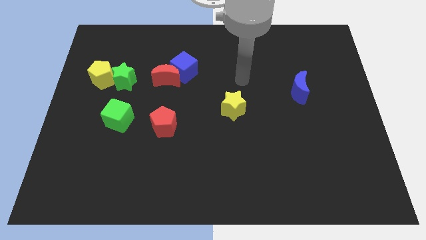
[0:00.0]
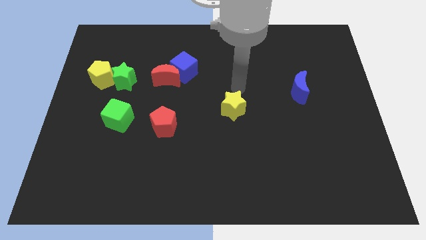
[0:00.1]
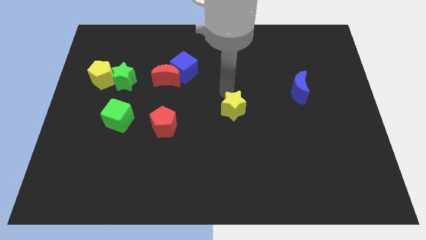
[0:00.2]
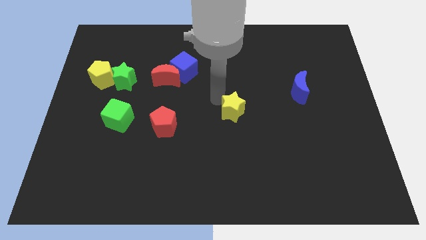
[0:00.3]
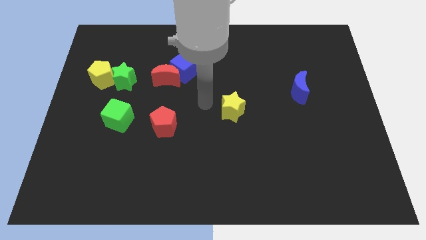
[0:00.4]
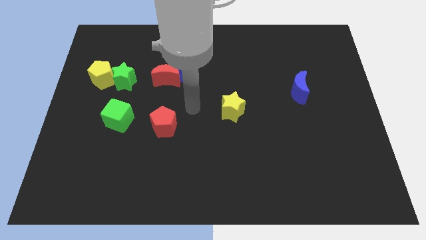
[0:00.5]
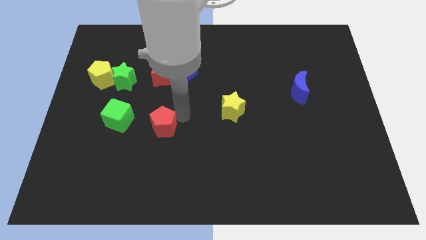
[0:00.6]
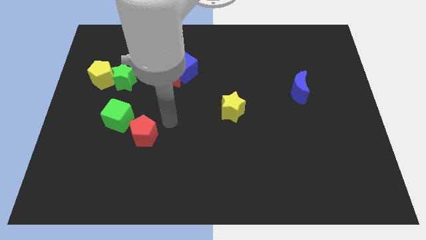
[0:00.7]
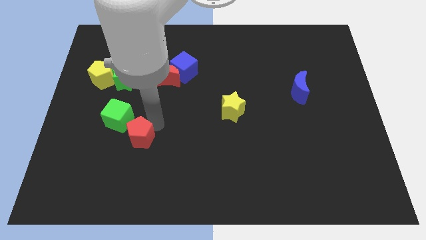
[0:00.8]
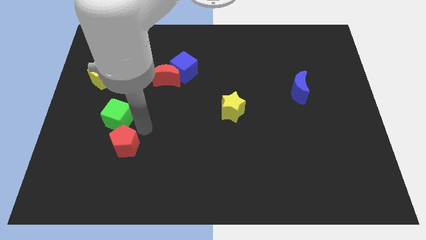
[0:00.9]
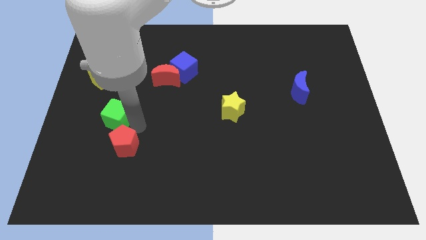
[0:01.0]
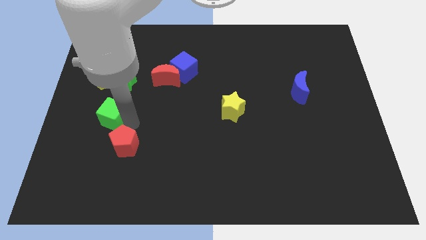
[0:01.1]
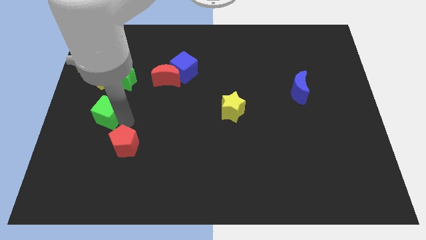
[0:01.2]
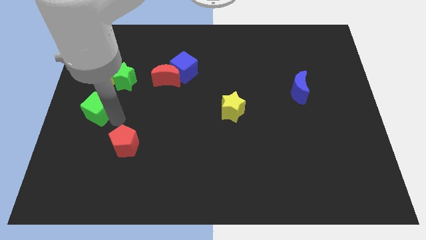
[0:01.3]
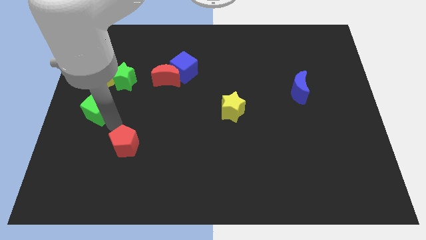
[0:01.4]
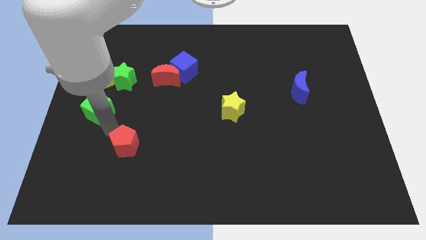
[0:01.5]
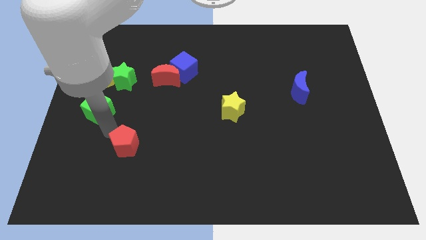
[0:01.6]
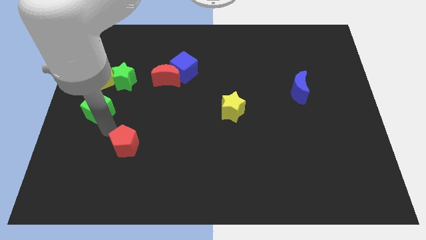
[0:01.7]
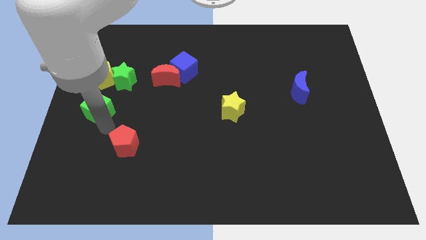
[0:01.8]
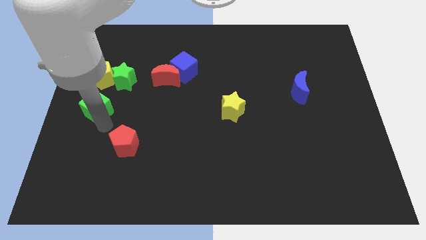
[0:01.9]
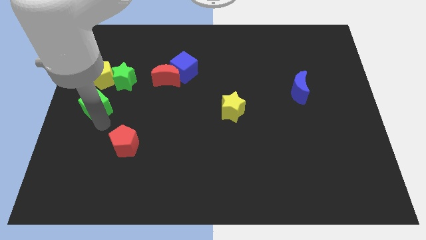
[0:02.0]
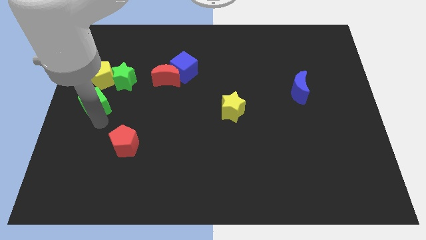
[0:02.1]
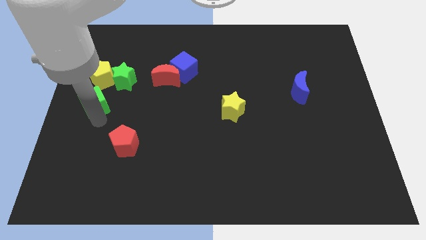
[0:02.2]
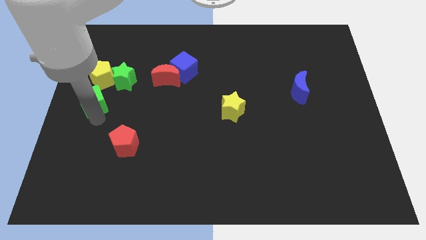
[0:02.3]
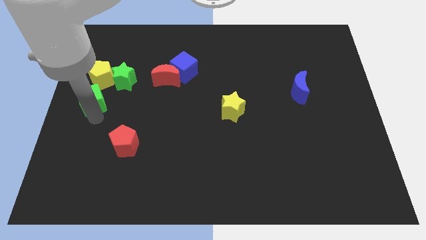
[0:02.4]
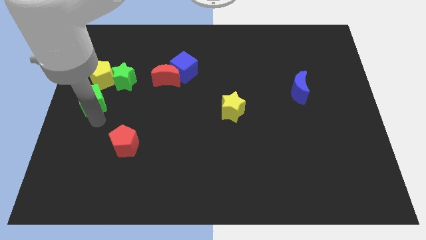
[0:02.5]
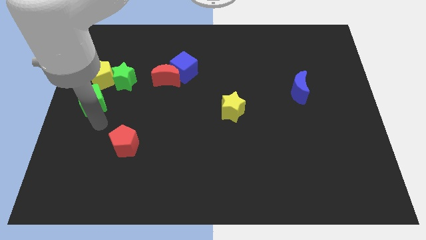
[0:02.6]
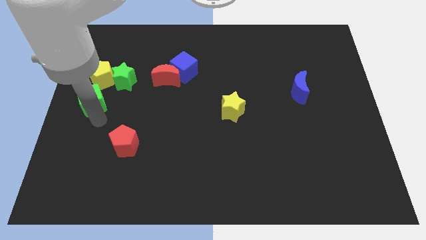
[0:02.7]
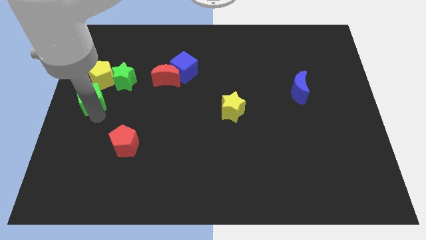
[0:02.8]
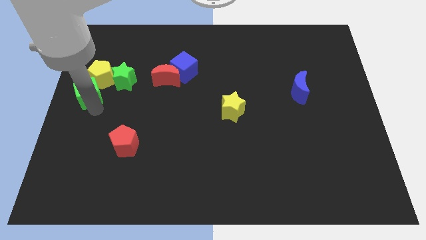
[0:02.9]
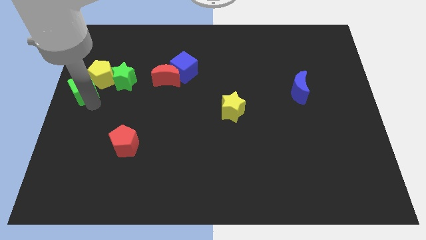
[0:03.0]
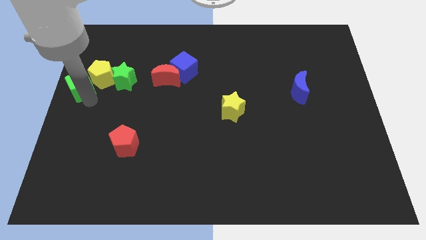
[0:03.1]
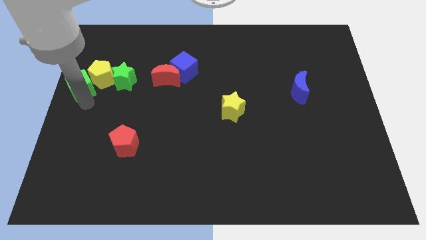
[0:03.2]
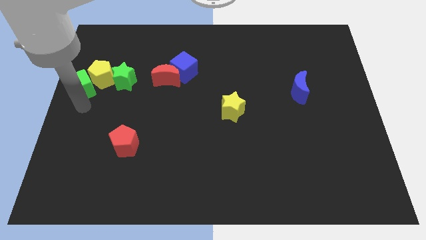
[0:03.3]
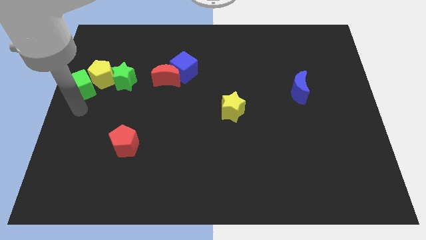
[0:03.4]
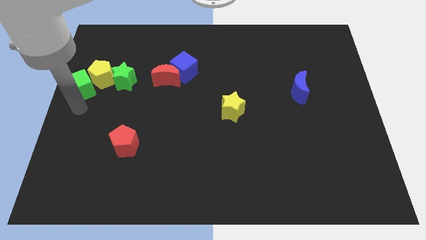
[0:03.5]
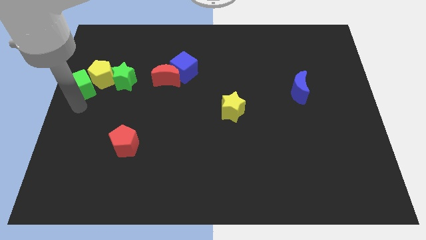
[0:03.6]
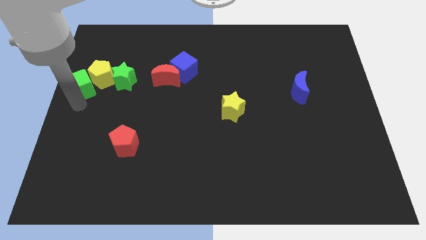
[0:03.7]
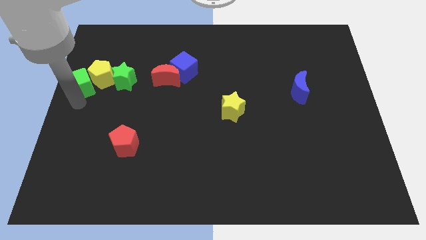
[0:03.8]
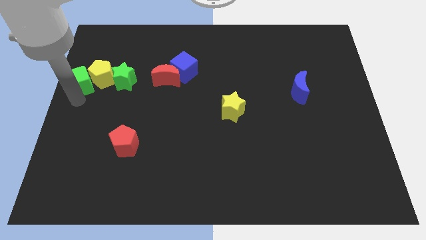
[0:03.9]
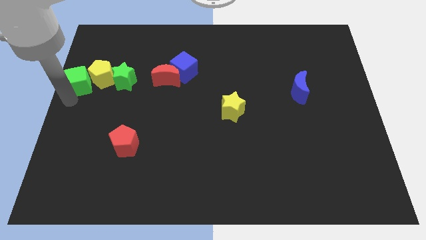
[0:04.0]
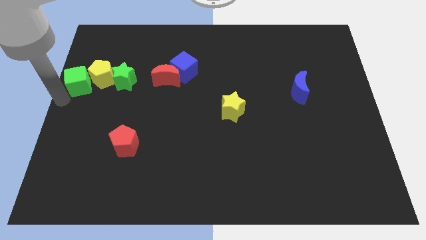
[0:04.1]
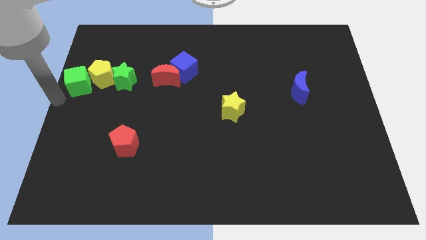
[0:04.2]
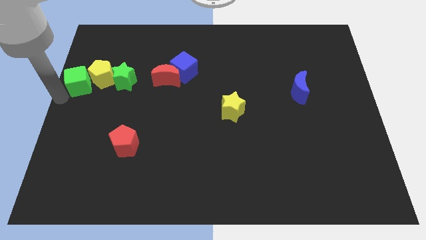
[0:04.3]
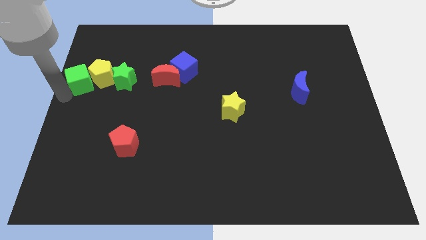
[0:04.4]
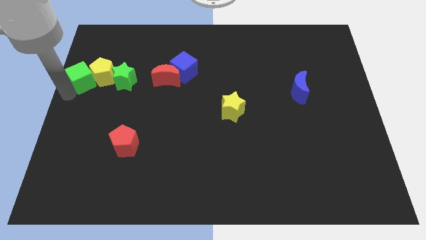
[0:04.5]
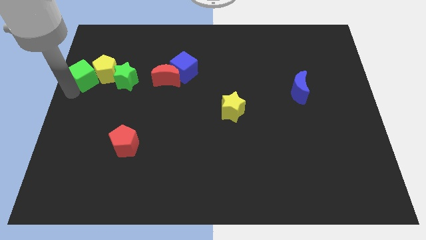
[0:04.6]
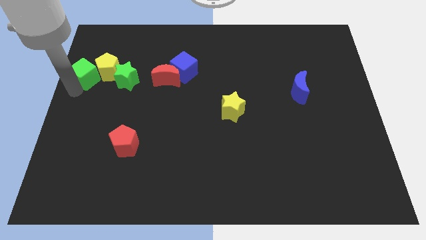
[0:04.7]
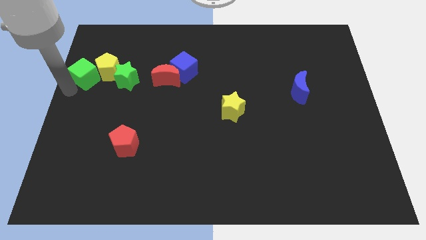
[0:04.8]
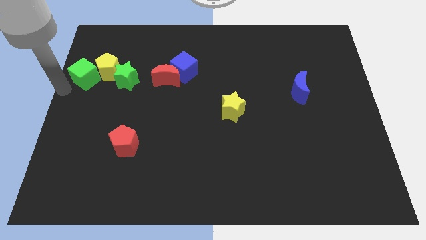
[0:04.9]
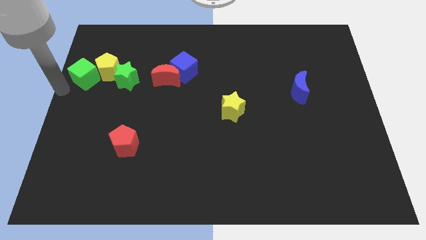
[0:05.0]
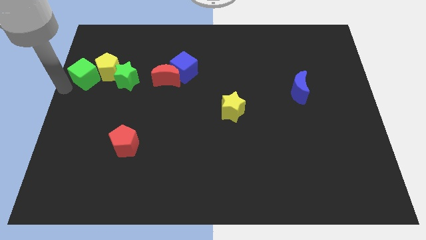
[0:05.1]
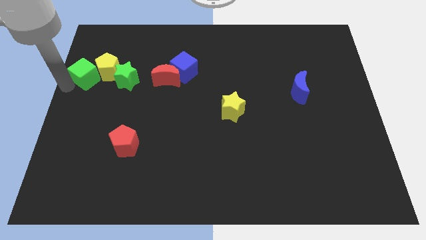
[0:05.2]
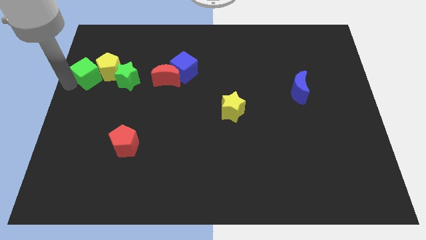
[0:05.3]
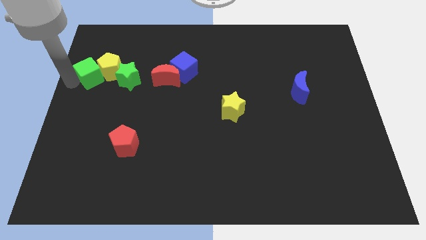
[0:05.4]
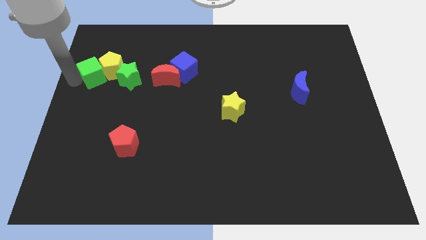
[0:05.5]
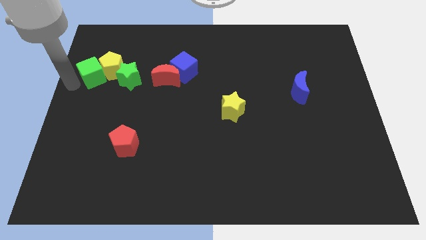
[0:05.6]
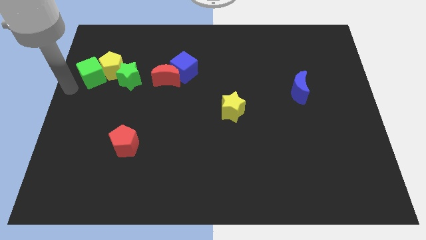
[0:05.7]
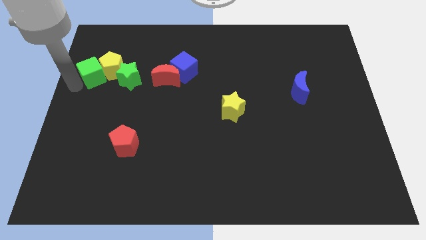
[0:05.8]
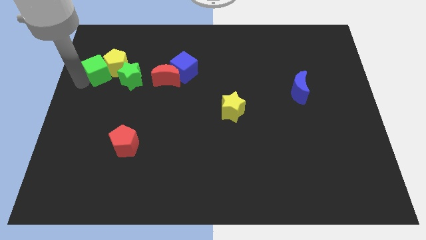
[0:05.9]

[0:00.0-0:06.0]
push the green cube to the top left side of the green star
